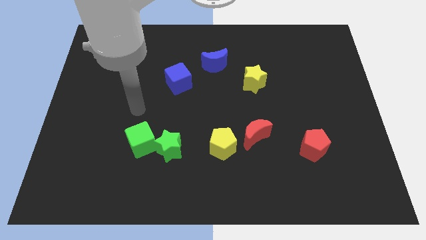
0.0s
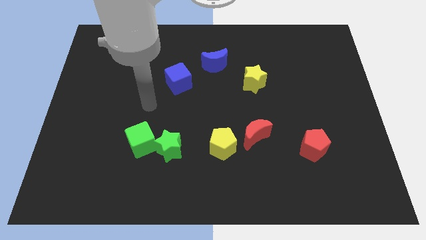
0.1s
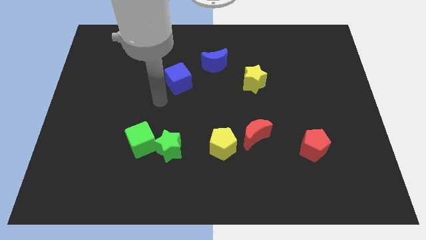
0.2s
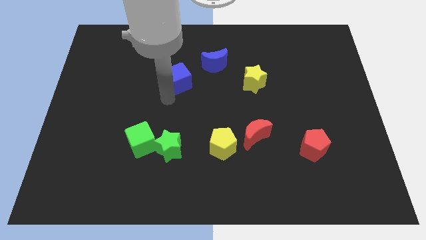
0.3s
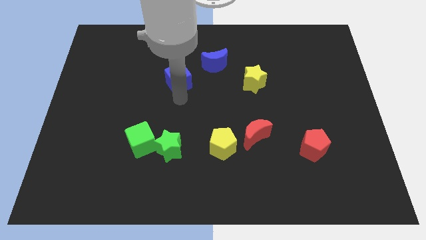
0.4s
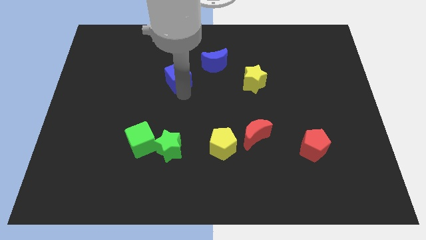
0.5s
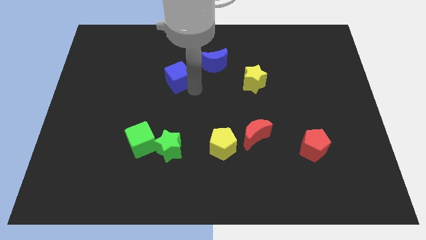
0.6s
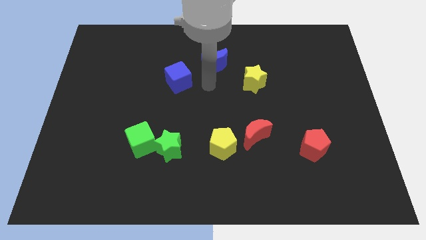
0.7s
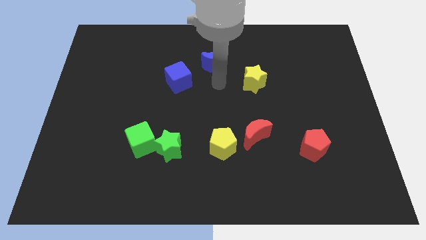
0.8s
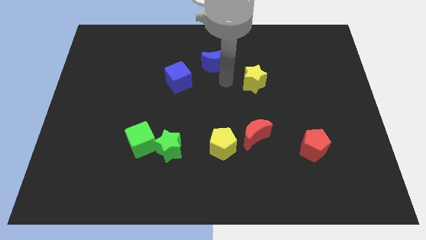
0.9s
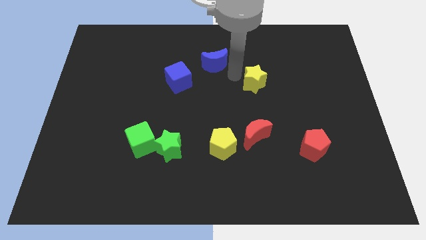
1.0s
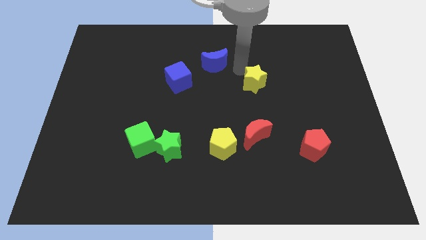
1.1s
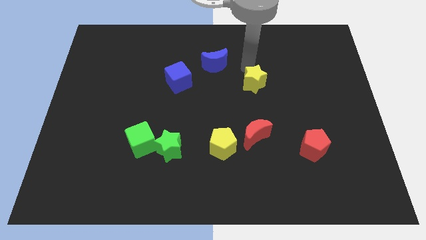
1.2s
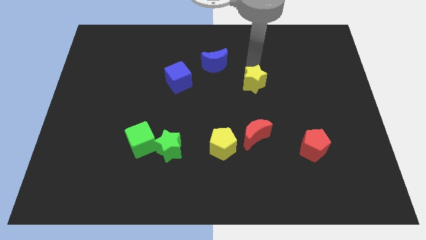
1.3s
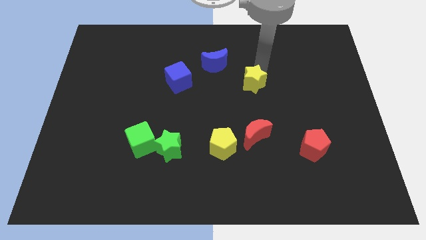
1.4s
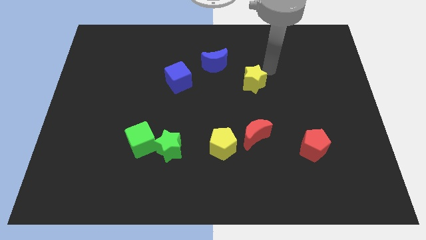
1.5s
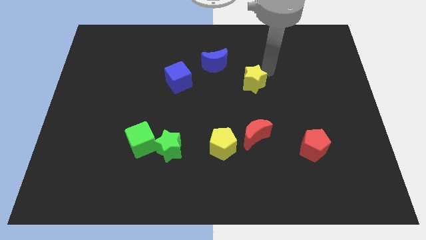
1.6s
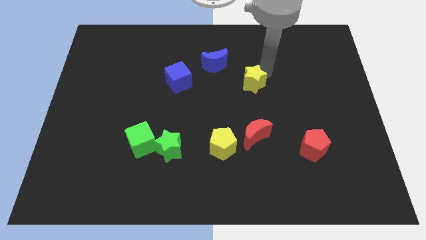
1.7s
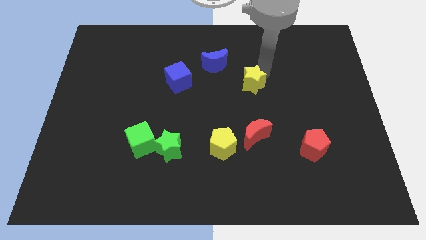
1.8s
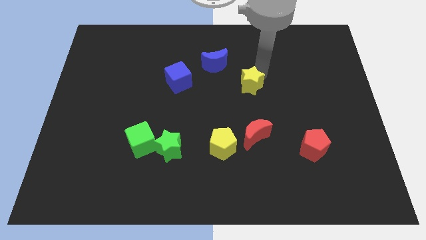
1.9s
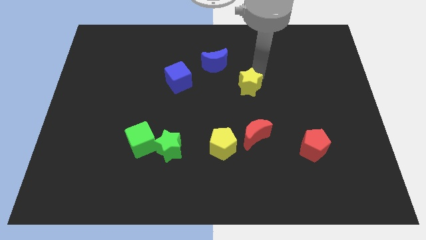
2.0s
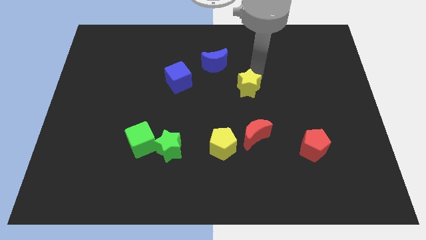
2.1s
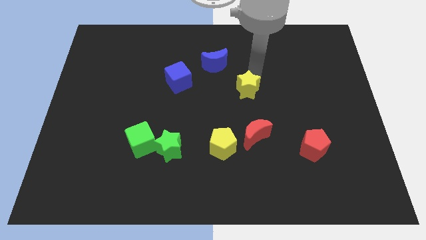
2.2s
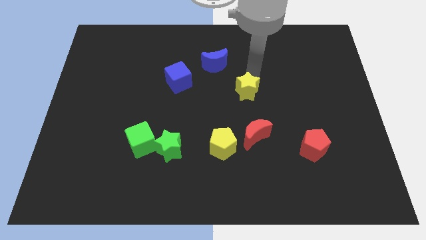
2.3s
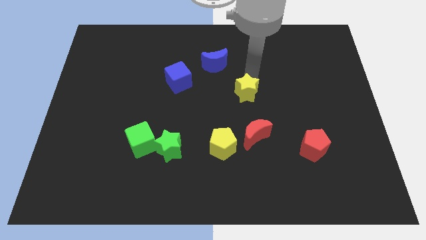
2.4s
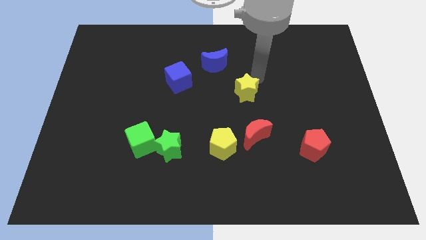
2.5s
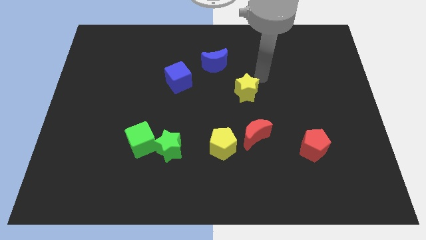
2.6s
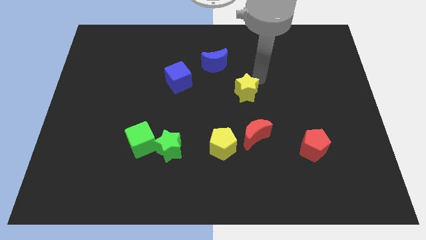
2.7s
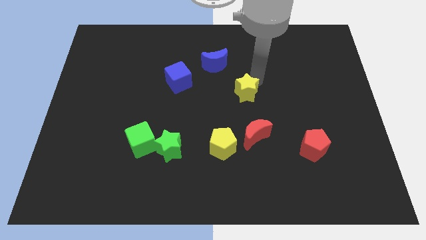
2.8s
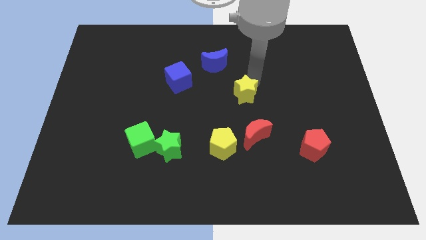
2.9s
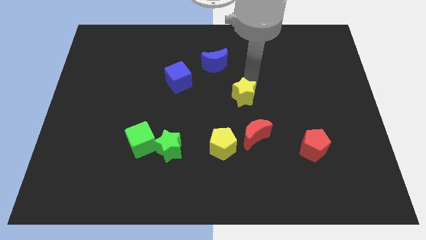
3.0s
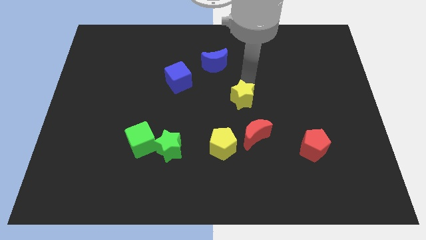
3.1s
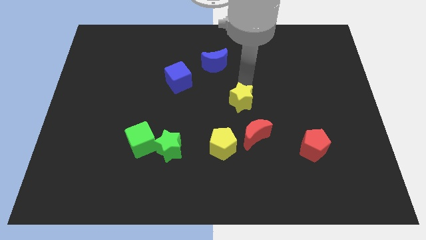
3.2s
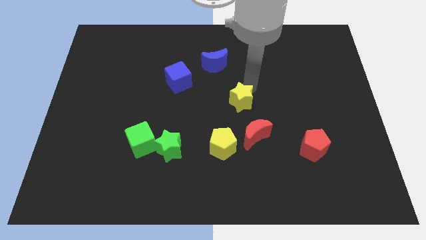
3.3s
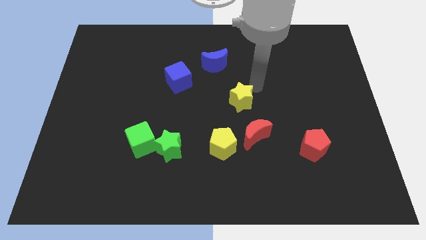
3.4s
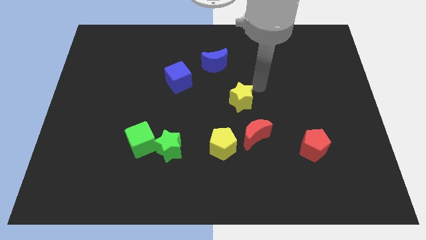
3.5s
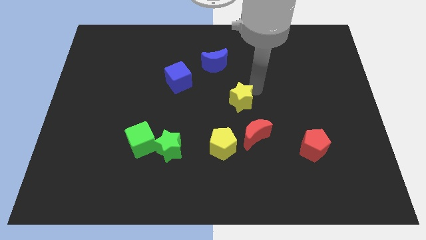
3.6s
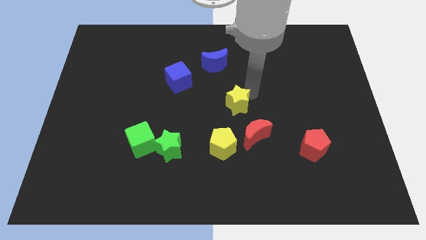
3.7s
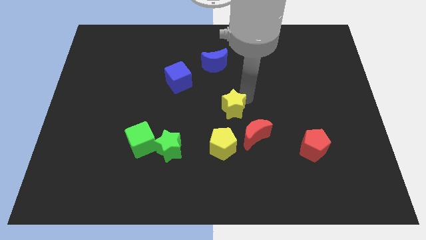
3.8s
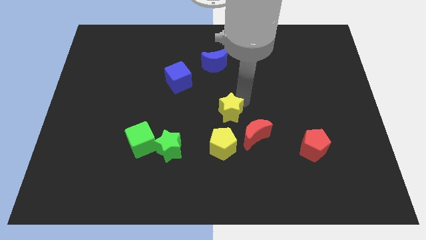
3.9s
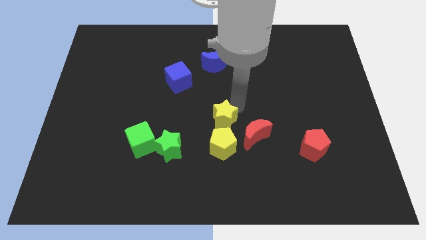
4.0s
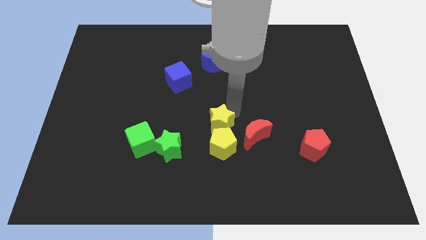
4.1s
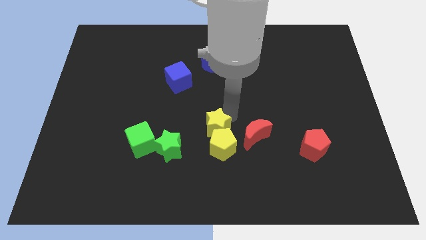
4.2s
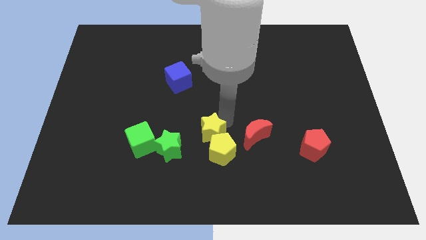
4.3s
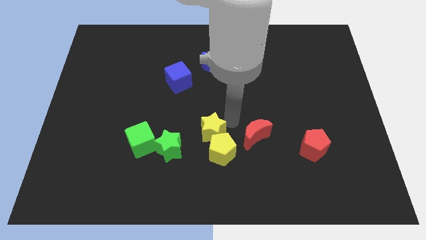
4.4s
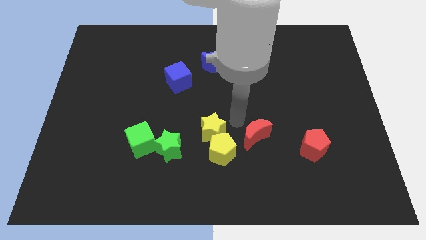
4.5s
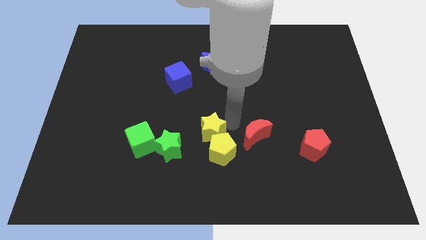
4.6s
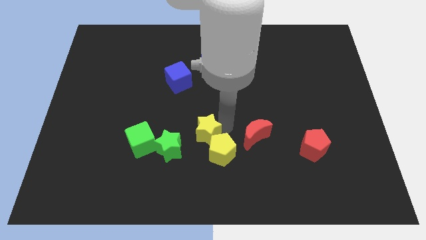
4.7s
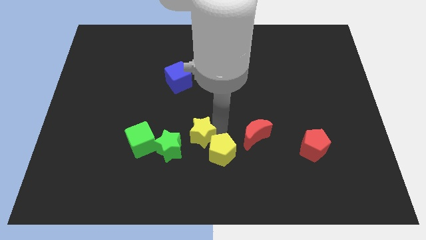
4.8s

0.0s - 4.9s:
push the yellow star down and left diagonally

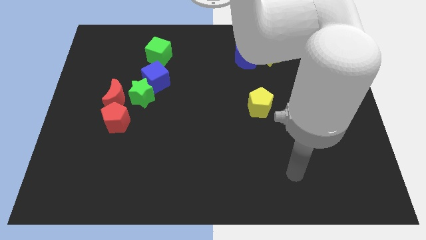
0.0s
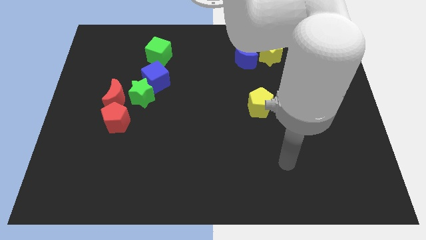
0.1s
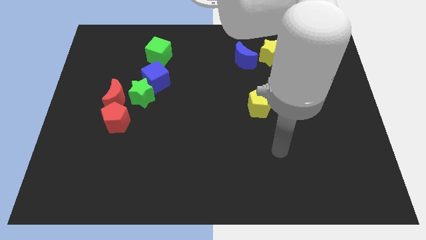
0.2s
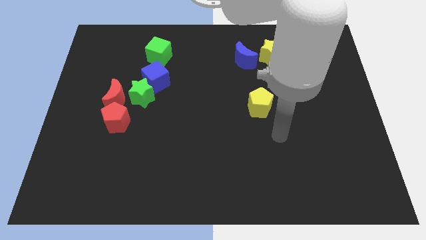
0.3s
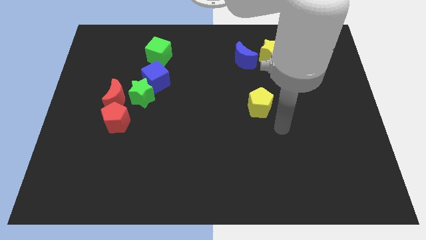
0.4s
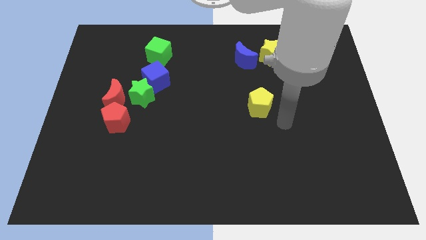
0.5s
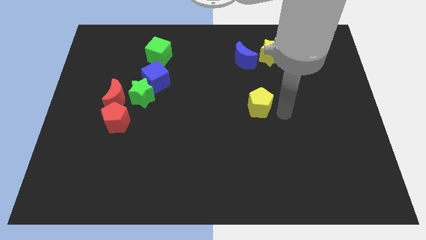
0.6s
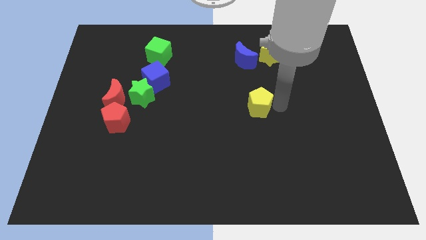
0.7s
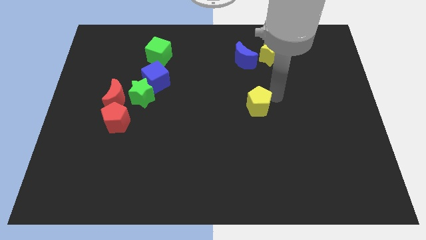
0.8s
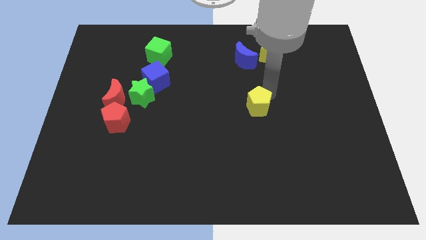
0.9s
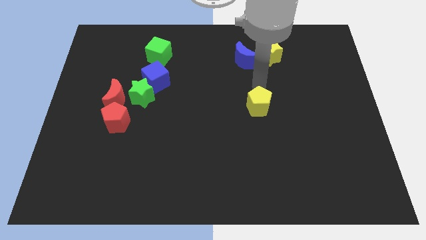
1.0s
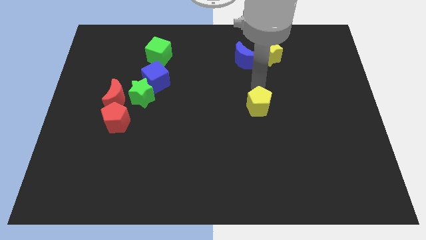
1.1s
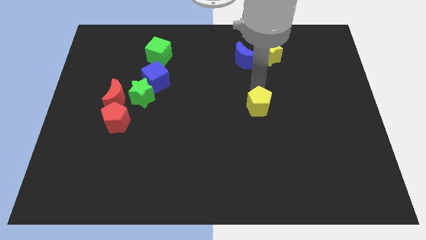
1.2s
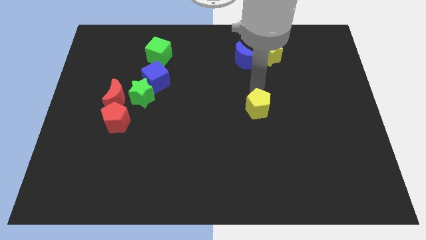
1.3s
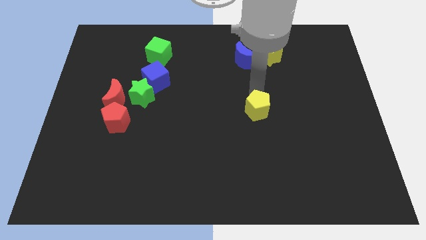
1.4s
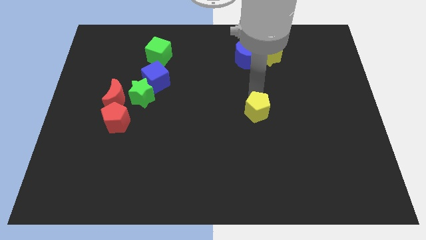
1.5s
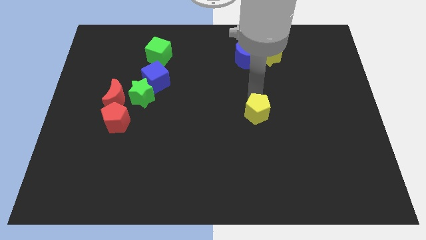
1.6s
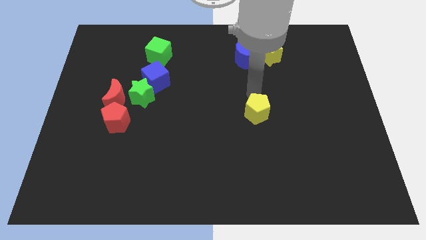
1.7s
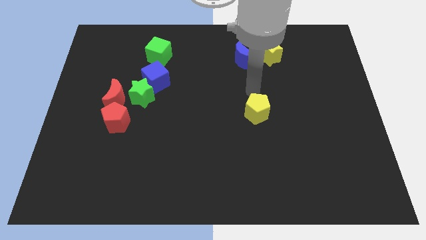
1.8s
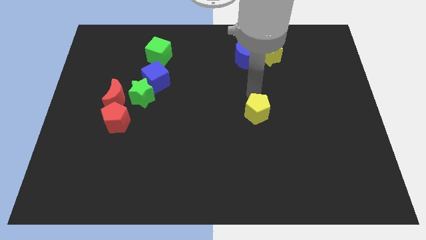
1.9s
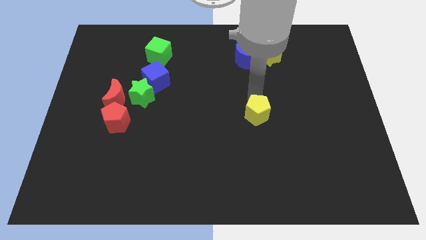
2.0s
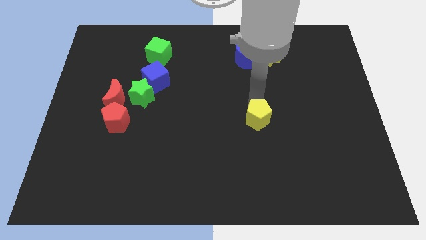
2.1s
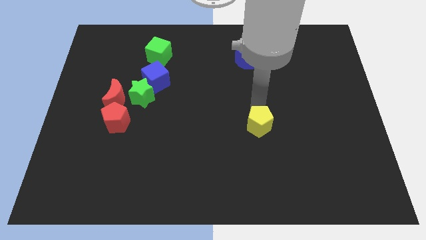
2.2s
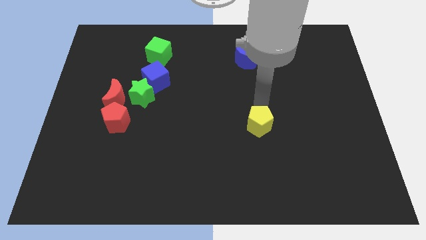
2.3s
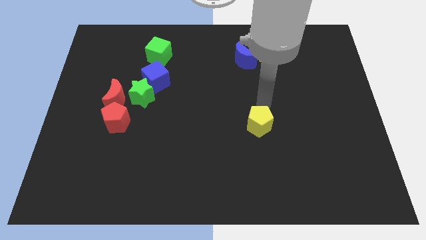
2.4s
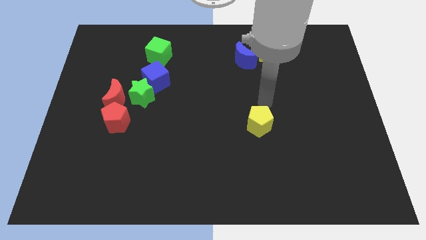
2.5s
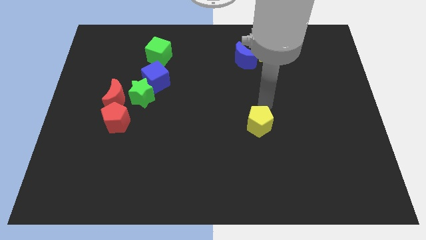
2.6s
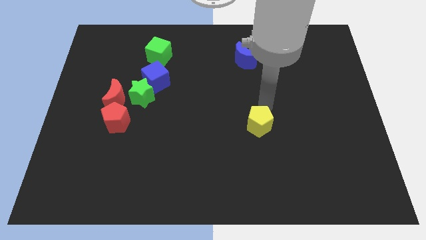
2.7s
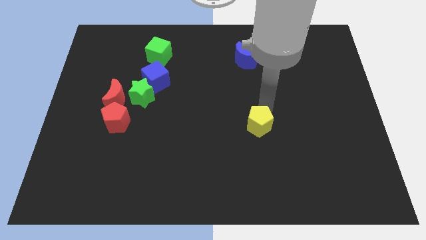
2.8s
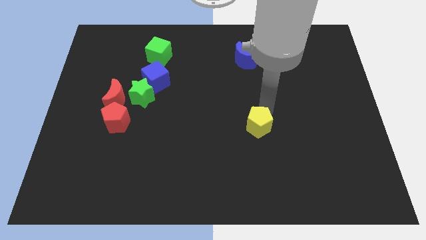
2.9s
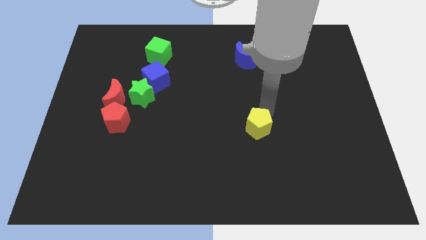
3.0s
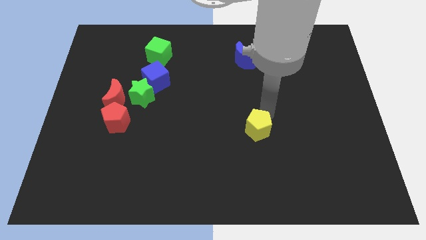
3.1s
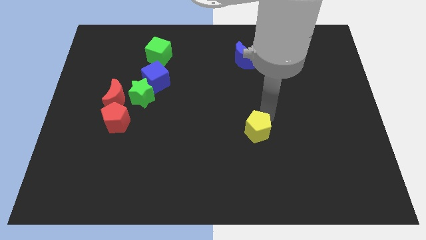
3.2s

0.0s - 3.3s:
slightly move the yellow pentagon downwards
